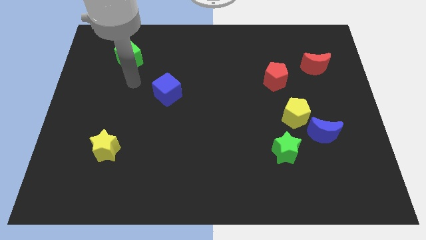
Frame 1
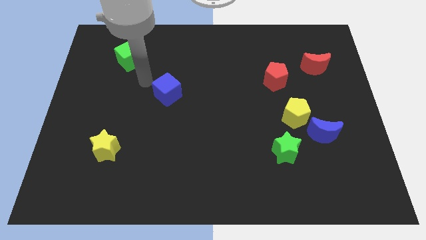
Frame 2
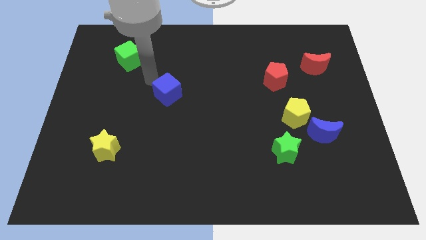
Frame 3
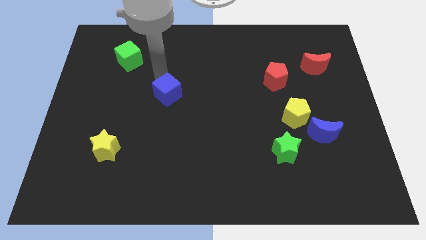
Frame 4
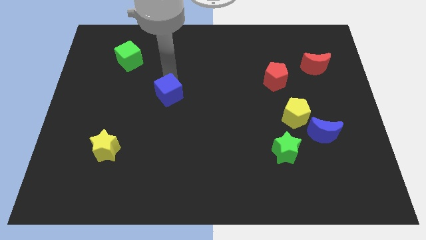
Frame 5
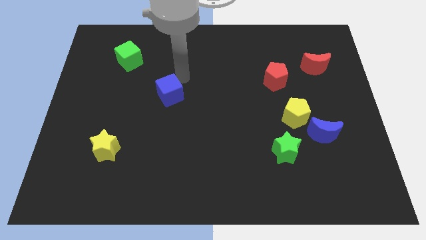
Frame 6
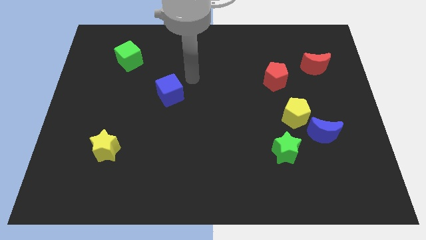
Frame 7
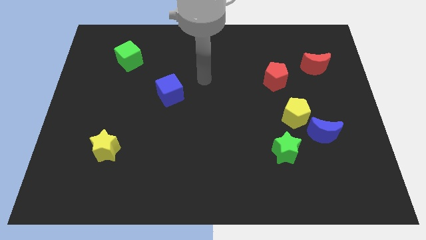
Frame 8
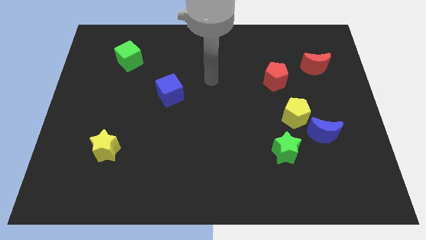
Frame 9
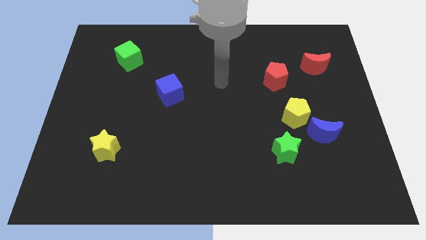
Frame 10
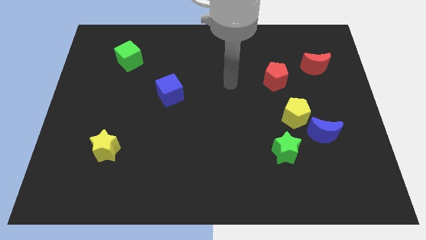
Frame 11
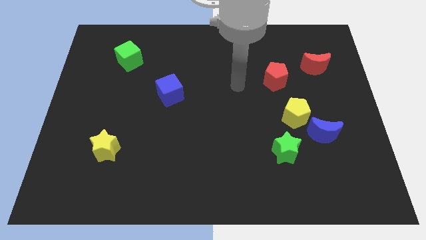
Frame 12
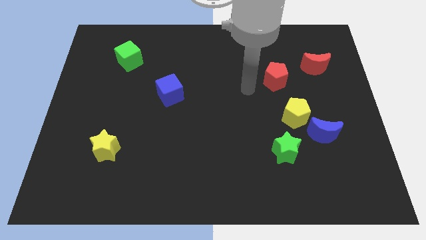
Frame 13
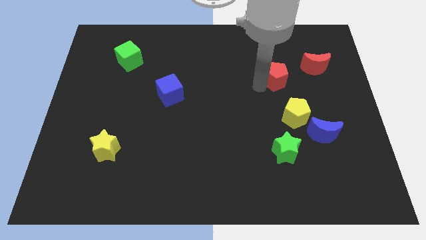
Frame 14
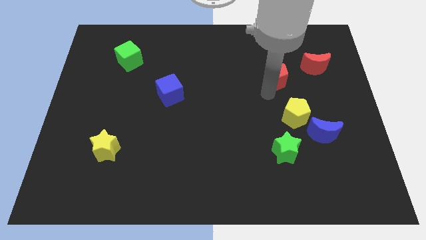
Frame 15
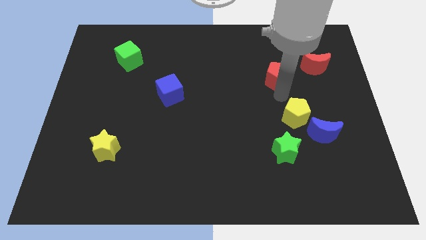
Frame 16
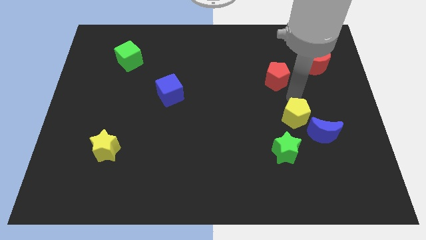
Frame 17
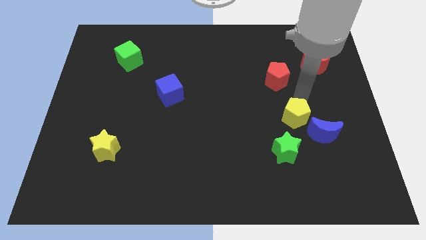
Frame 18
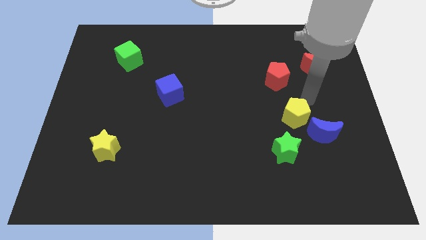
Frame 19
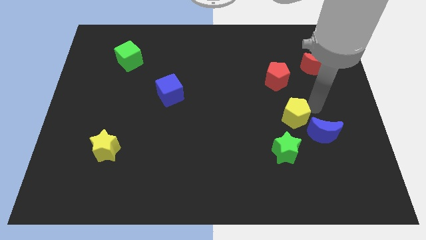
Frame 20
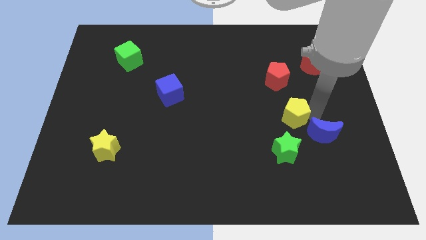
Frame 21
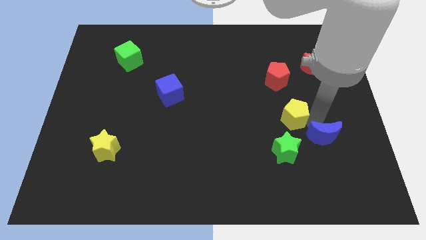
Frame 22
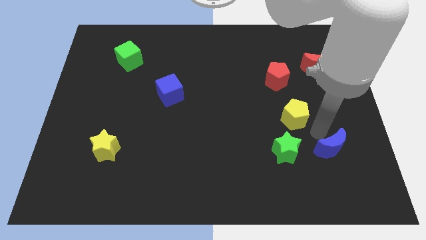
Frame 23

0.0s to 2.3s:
pull the yellow pentagon apart from the blue moon

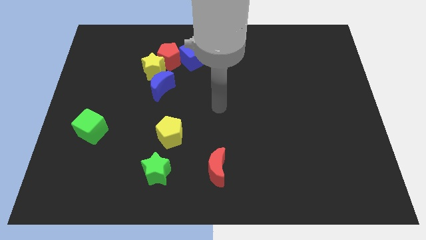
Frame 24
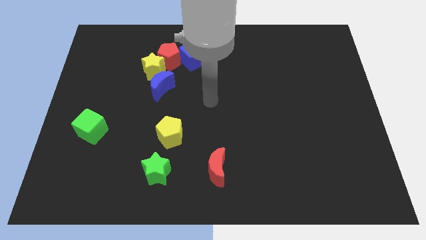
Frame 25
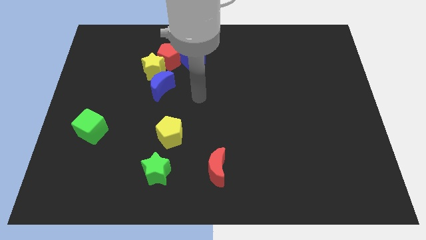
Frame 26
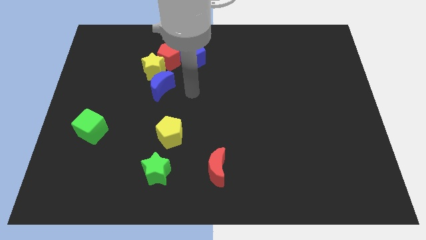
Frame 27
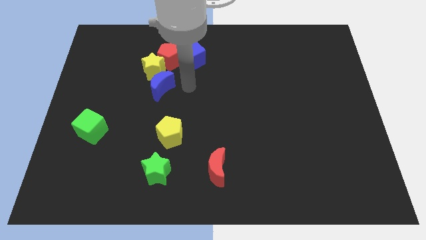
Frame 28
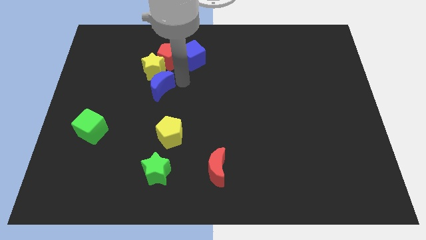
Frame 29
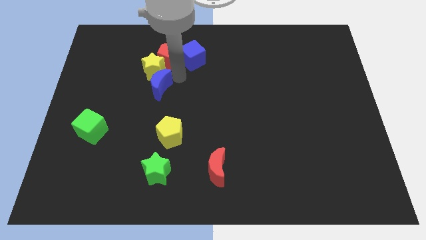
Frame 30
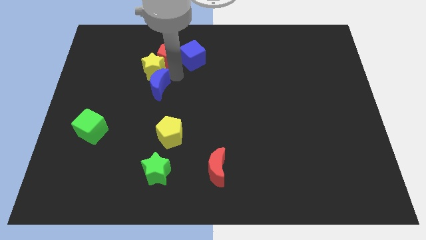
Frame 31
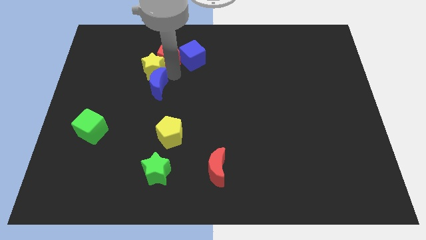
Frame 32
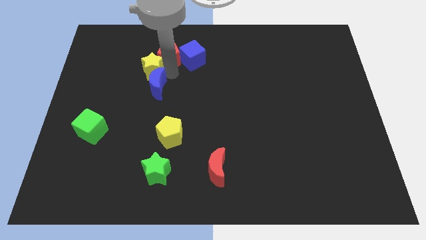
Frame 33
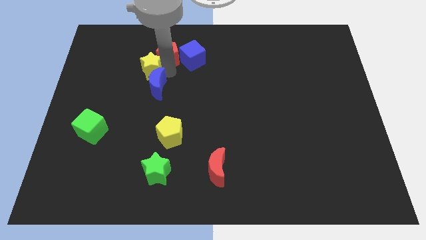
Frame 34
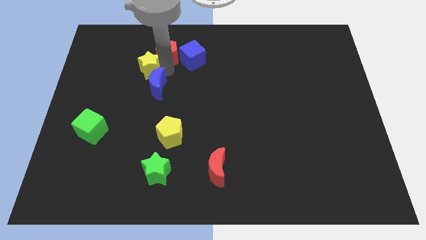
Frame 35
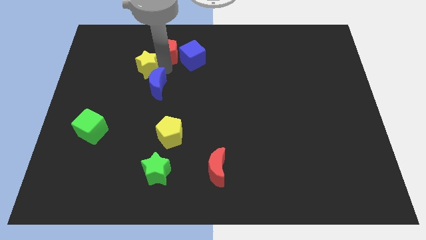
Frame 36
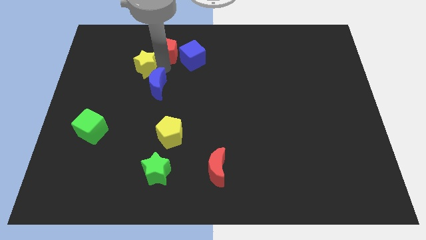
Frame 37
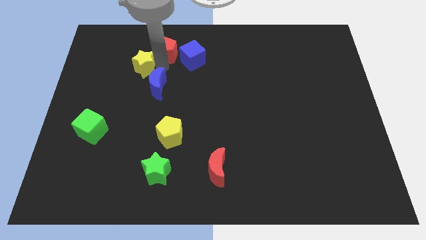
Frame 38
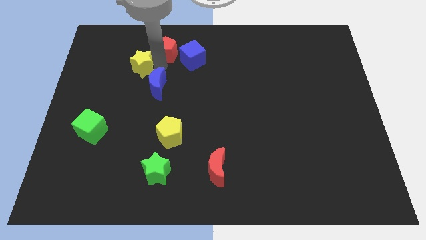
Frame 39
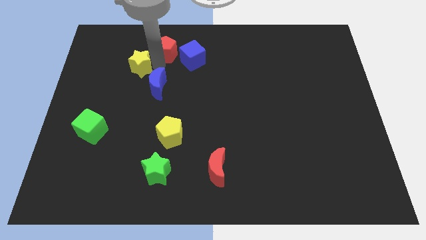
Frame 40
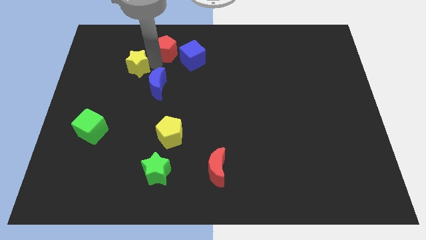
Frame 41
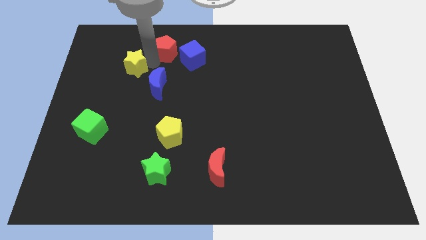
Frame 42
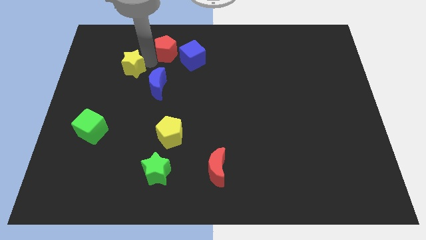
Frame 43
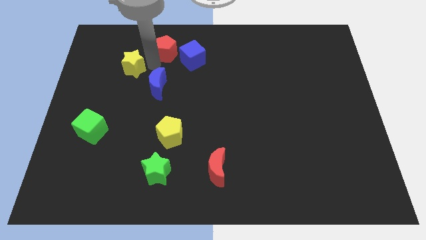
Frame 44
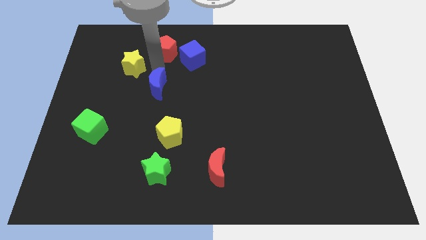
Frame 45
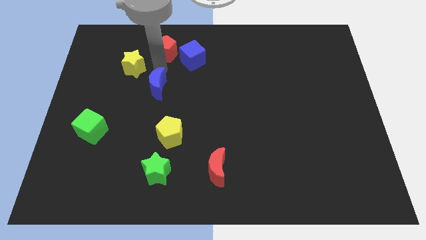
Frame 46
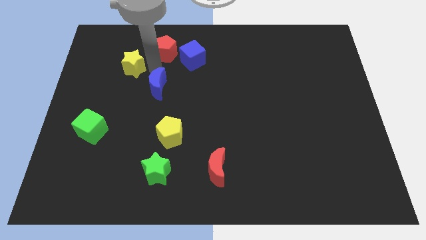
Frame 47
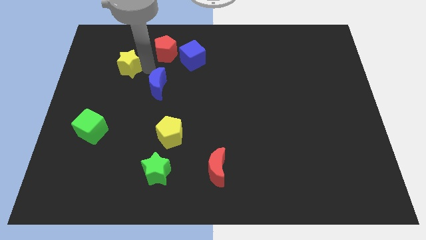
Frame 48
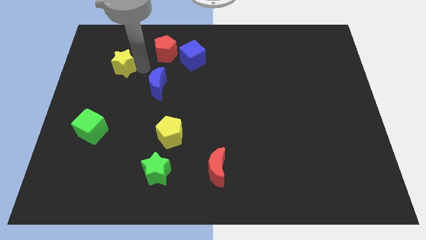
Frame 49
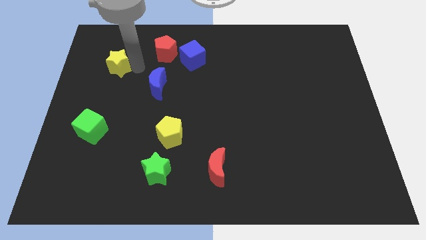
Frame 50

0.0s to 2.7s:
move the yellow star away from the red pentagon and blue moon

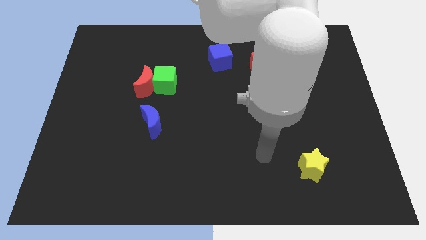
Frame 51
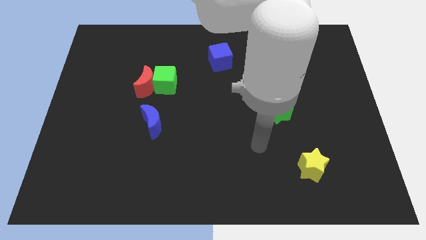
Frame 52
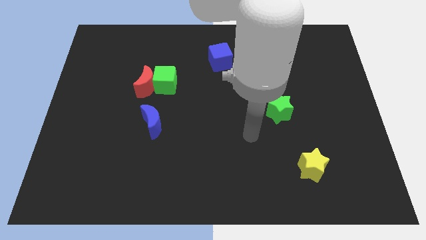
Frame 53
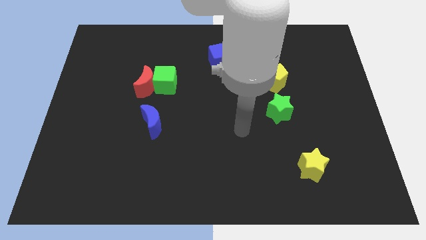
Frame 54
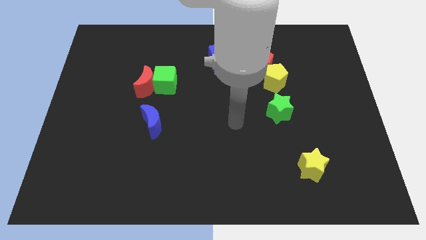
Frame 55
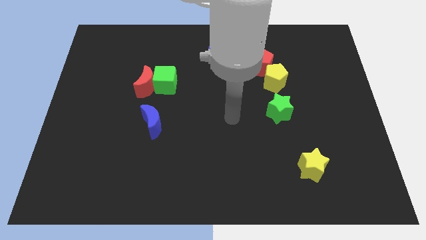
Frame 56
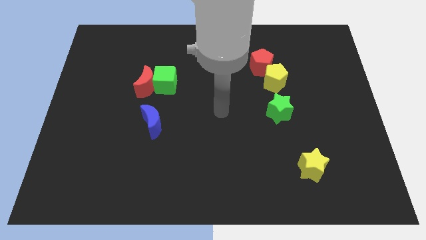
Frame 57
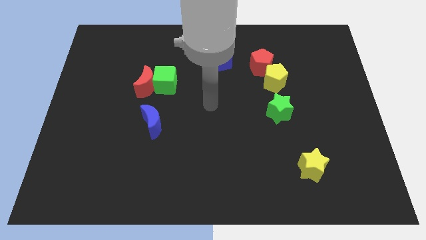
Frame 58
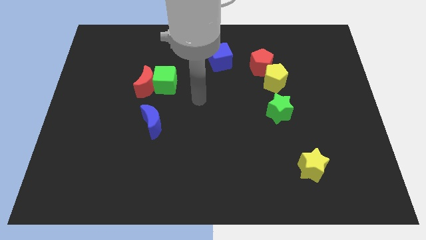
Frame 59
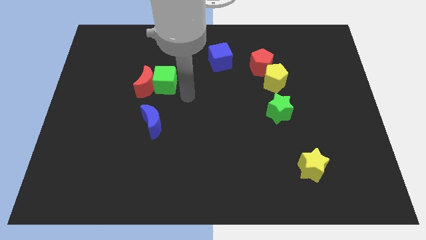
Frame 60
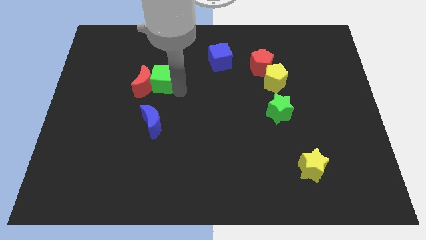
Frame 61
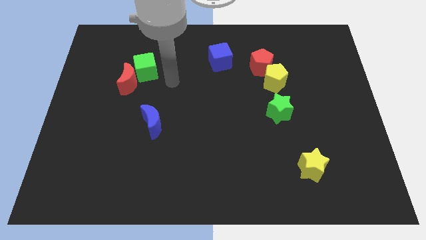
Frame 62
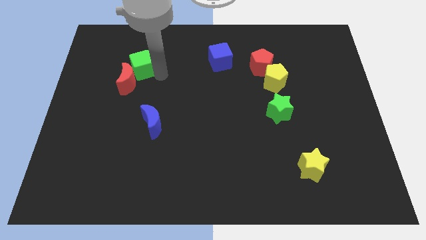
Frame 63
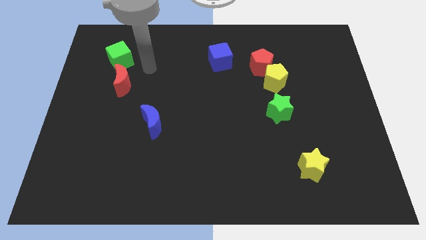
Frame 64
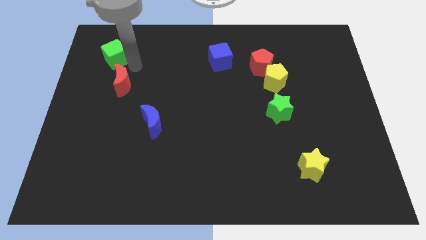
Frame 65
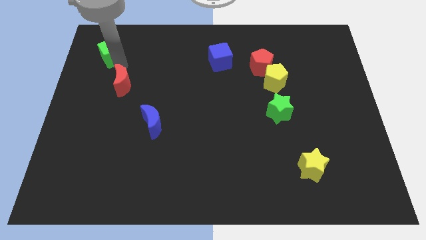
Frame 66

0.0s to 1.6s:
move the red moon away from the green cube

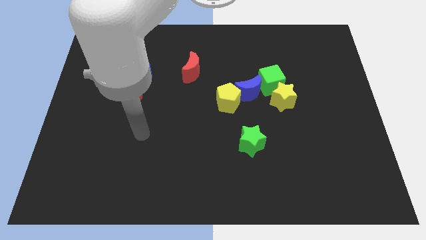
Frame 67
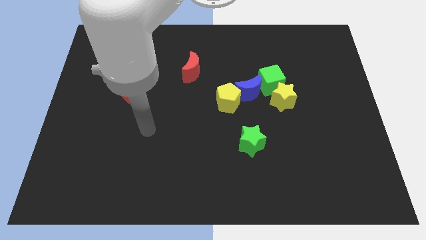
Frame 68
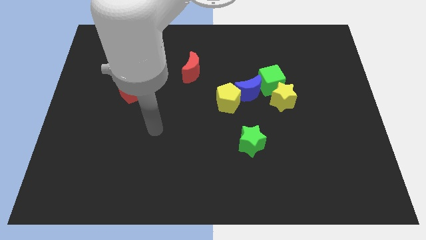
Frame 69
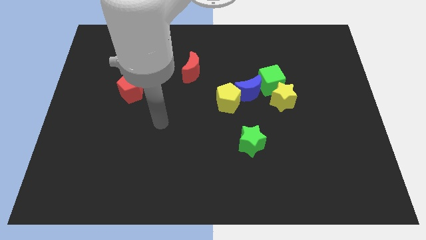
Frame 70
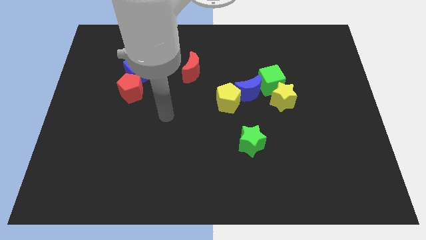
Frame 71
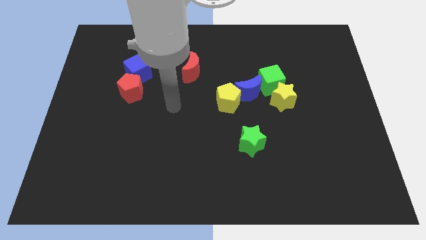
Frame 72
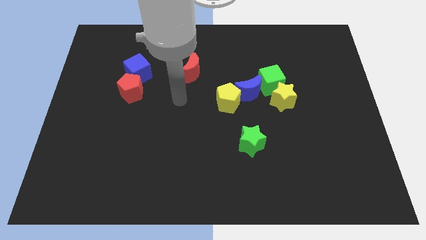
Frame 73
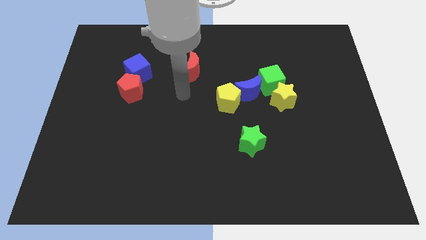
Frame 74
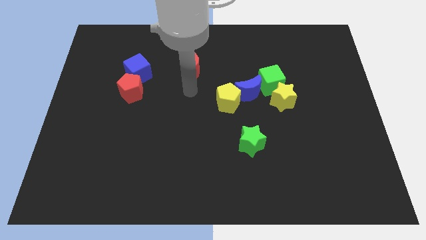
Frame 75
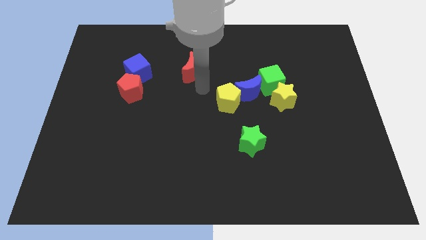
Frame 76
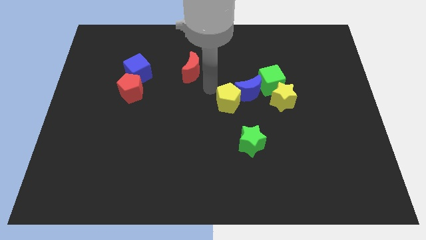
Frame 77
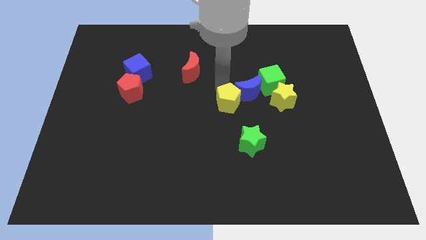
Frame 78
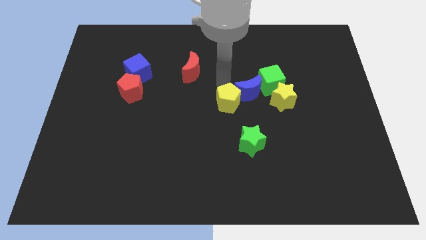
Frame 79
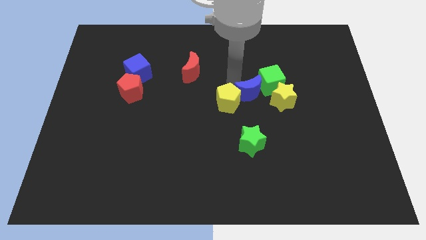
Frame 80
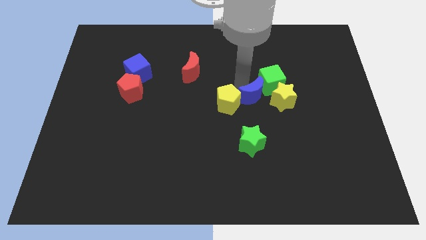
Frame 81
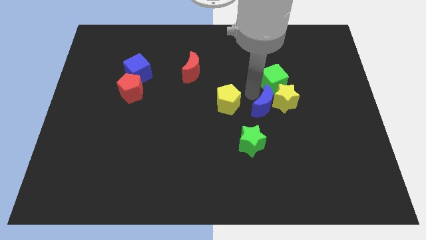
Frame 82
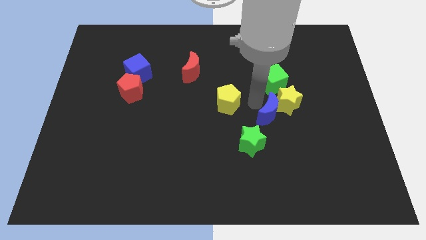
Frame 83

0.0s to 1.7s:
separate the yellow pentagon from the blue moon

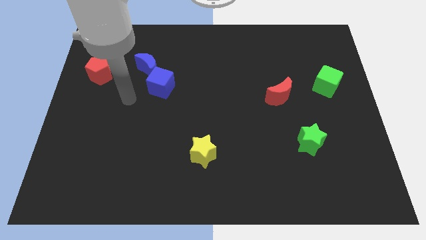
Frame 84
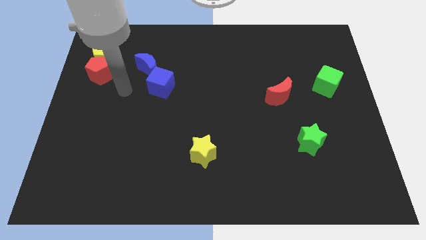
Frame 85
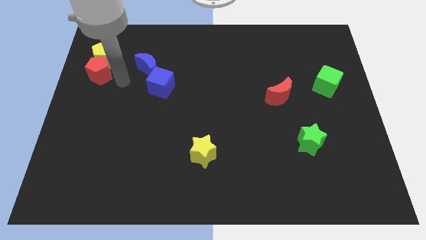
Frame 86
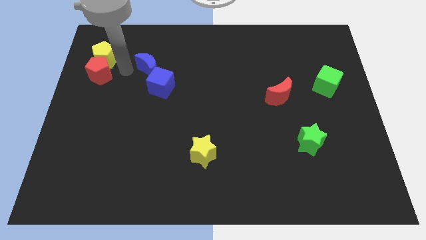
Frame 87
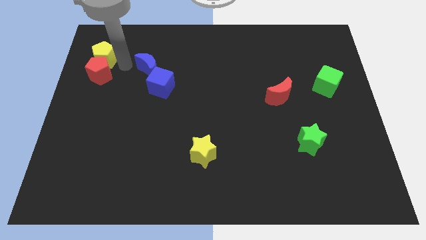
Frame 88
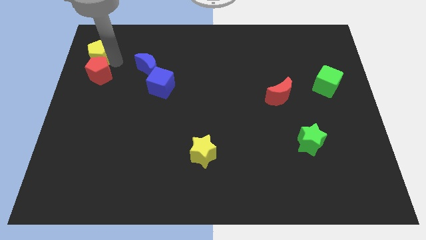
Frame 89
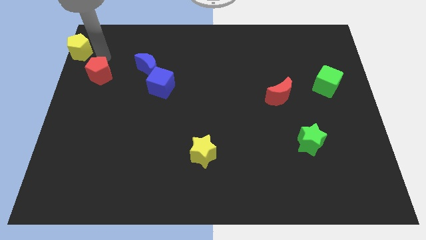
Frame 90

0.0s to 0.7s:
move the red pentagon away from the yellow pentagon
